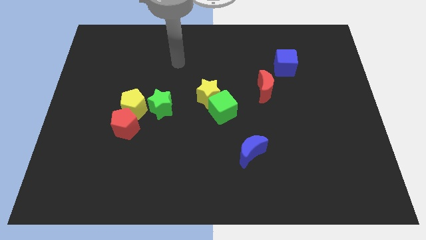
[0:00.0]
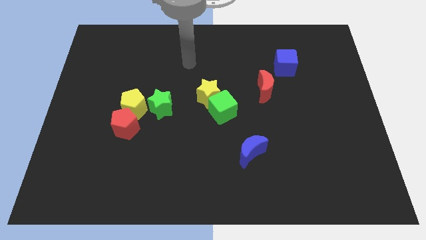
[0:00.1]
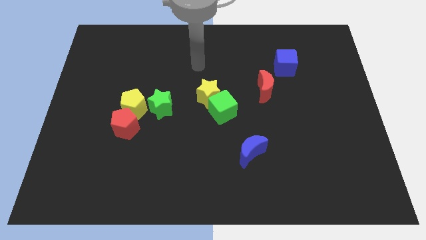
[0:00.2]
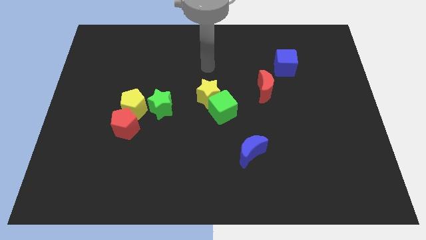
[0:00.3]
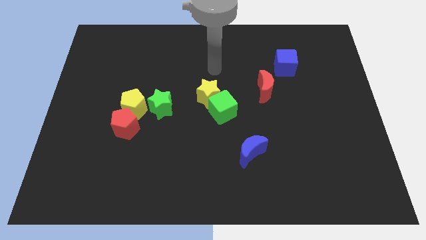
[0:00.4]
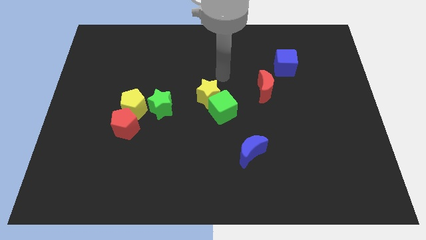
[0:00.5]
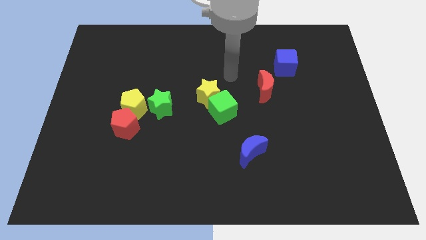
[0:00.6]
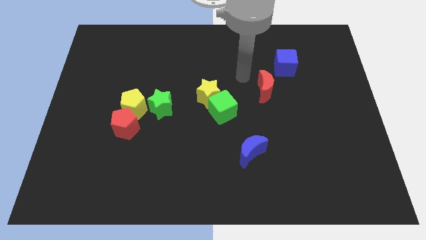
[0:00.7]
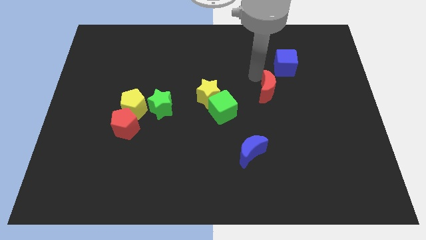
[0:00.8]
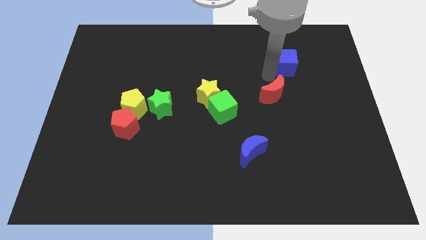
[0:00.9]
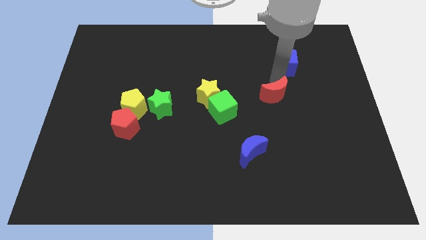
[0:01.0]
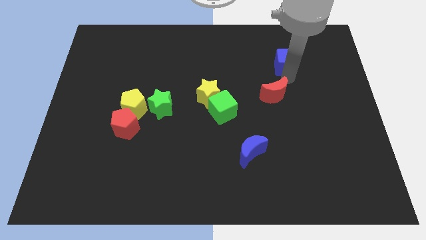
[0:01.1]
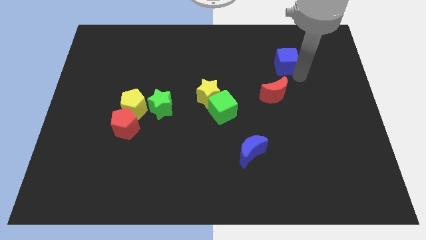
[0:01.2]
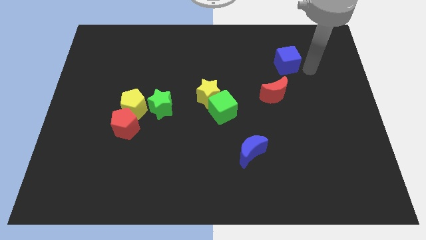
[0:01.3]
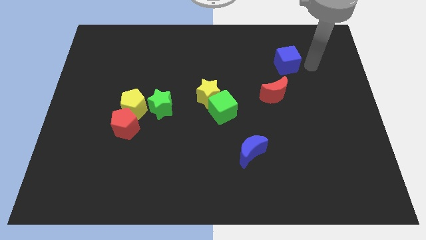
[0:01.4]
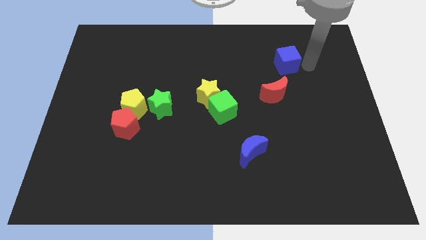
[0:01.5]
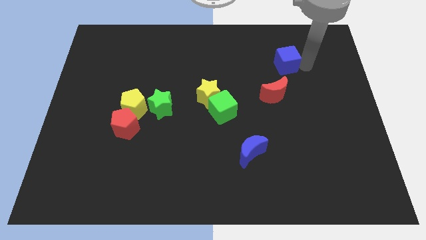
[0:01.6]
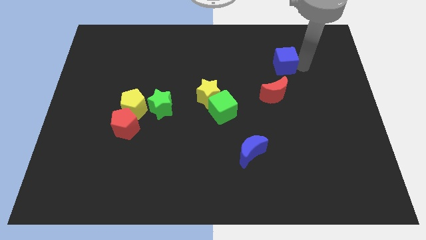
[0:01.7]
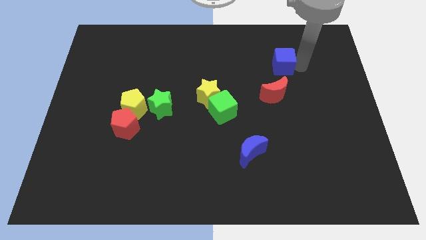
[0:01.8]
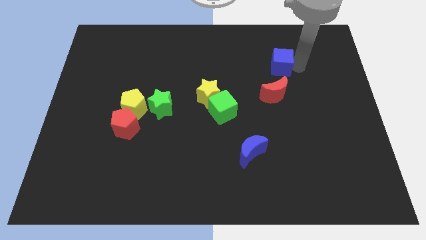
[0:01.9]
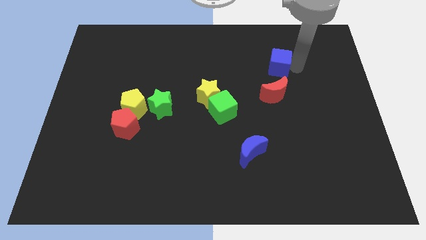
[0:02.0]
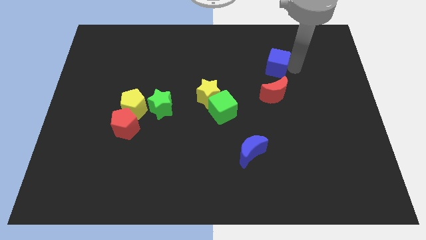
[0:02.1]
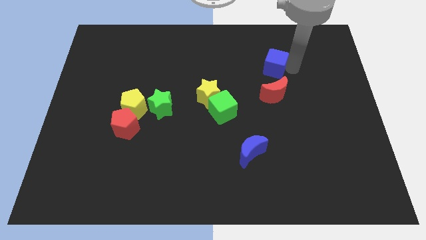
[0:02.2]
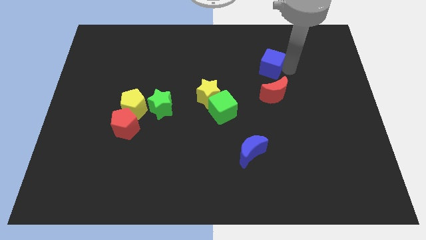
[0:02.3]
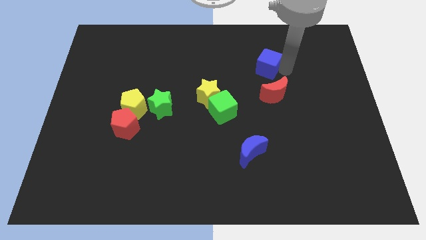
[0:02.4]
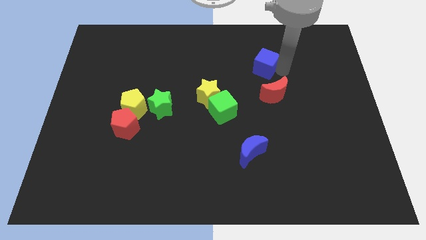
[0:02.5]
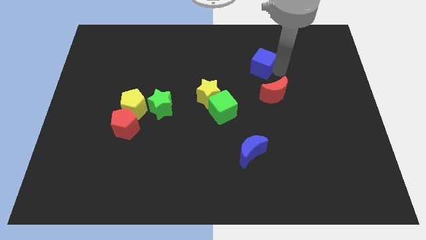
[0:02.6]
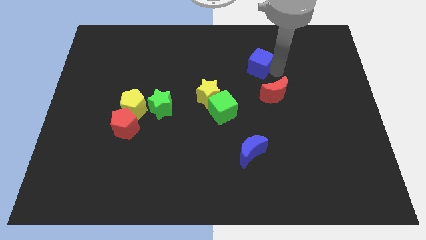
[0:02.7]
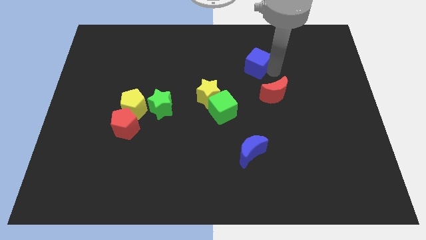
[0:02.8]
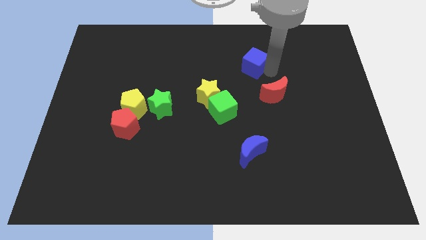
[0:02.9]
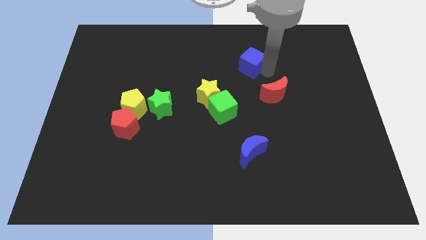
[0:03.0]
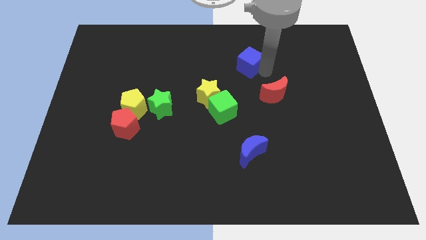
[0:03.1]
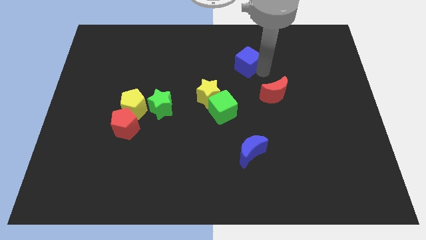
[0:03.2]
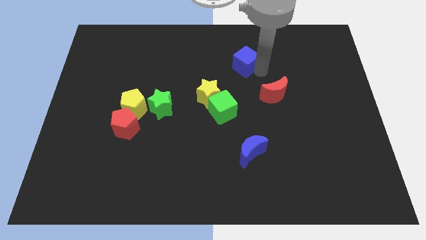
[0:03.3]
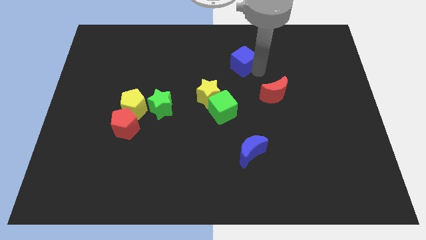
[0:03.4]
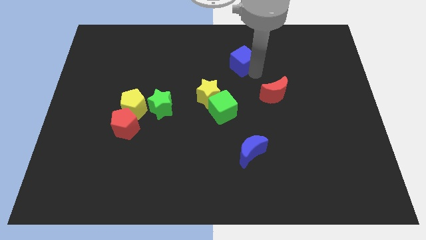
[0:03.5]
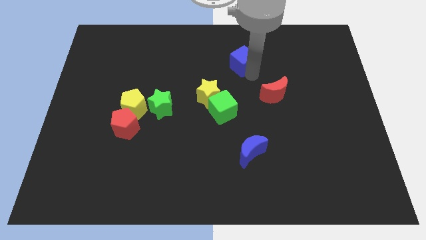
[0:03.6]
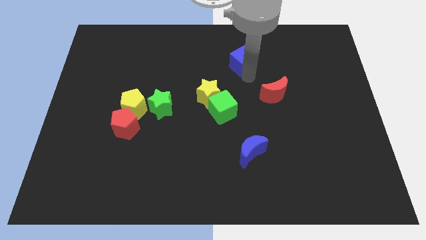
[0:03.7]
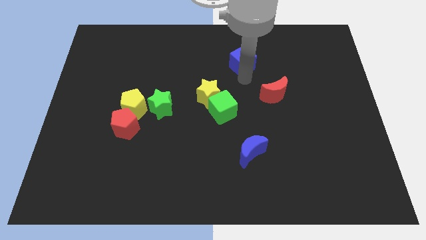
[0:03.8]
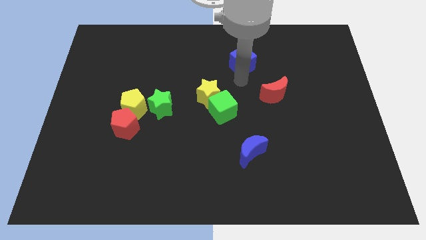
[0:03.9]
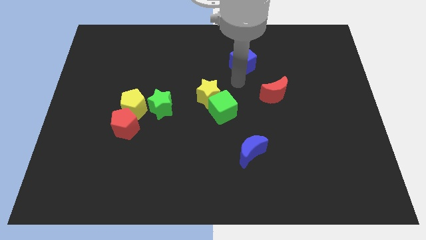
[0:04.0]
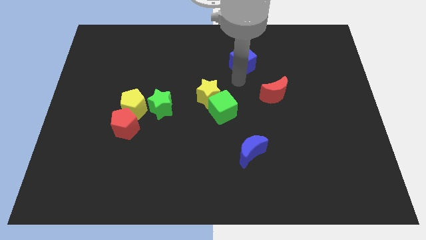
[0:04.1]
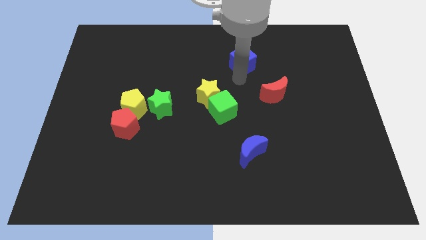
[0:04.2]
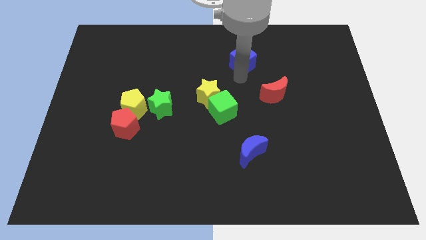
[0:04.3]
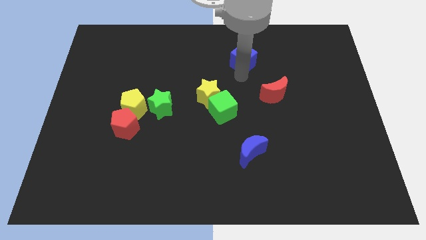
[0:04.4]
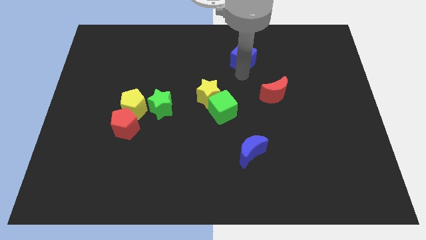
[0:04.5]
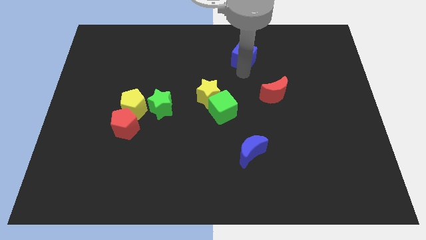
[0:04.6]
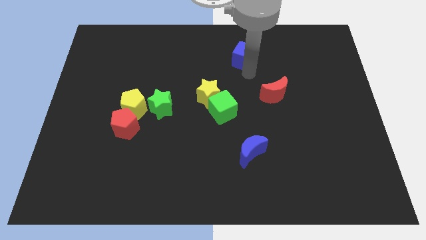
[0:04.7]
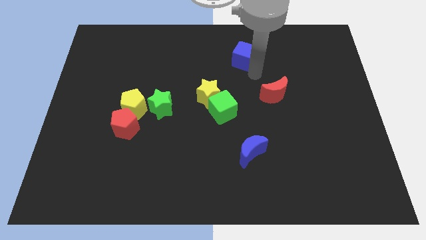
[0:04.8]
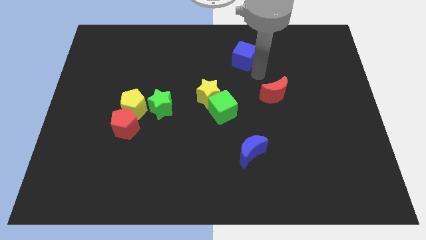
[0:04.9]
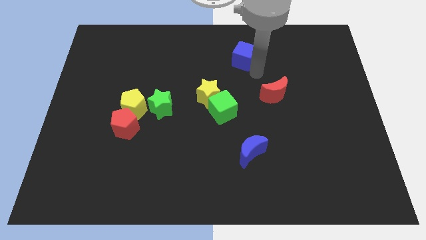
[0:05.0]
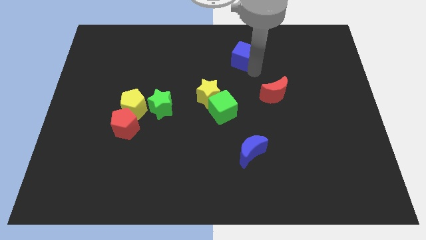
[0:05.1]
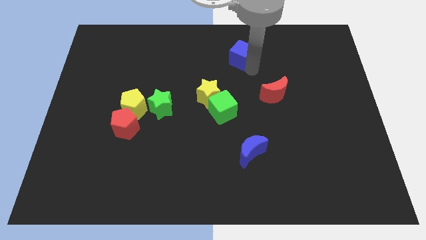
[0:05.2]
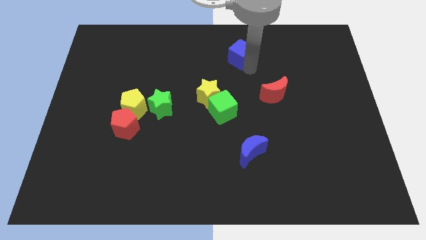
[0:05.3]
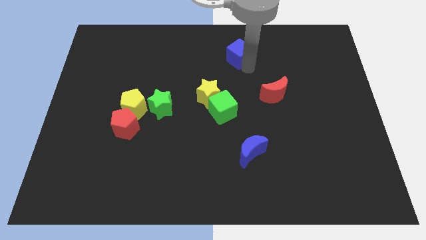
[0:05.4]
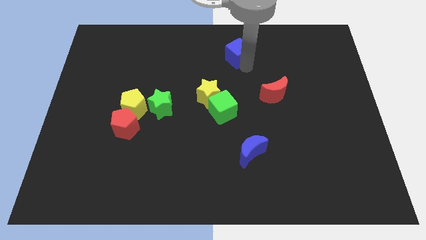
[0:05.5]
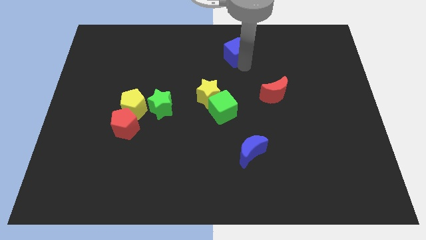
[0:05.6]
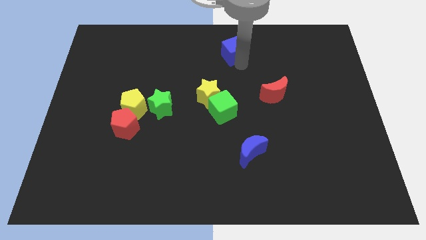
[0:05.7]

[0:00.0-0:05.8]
move the blue cube to the top side
